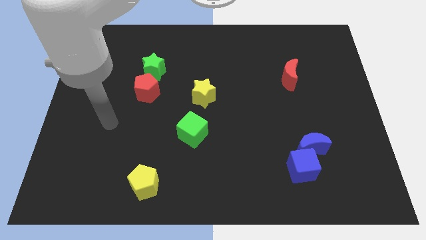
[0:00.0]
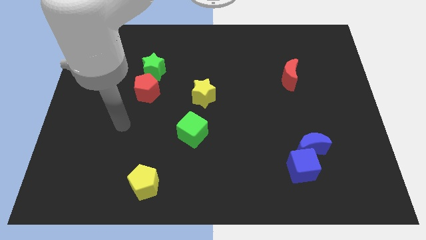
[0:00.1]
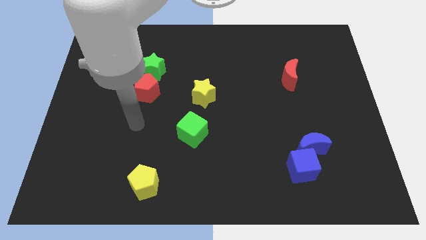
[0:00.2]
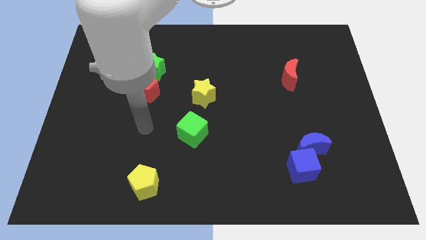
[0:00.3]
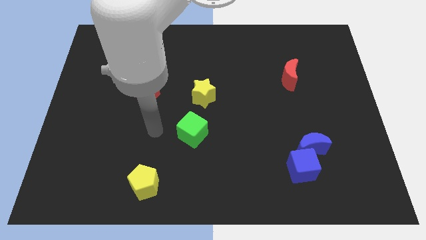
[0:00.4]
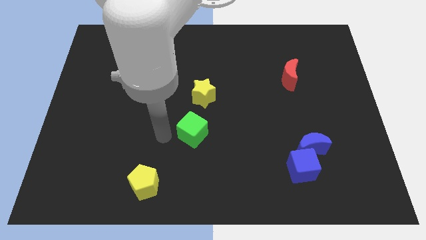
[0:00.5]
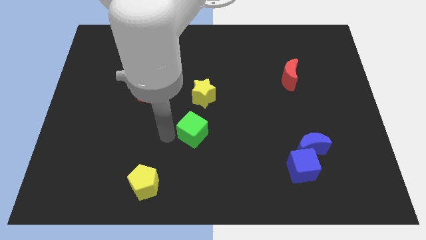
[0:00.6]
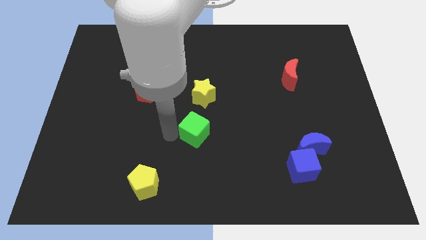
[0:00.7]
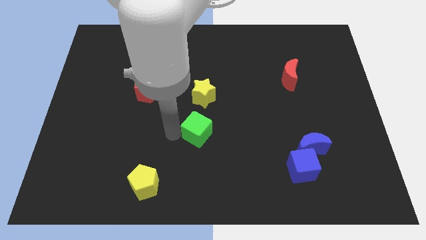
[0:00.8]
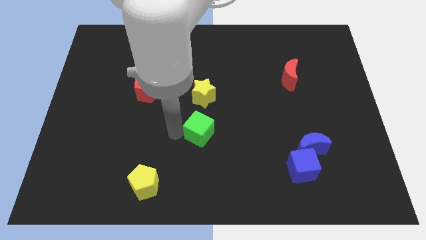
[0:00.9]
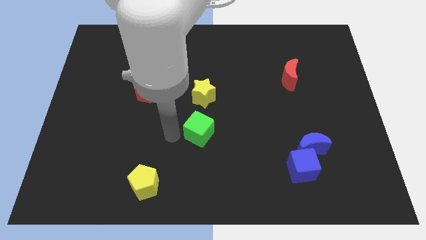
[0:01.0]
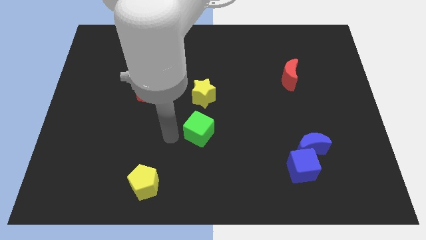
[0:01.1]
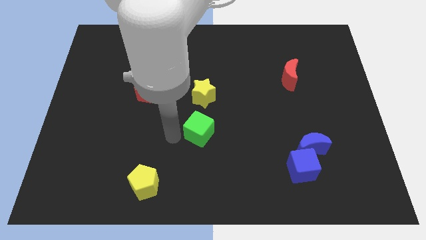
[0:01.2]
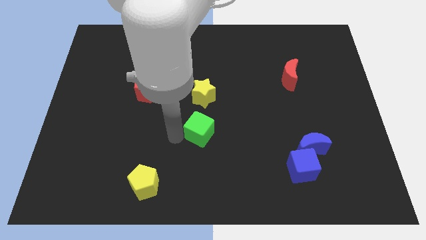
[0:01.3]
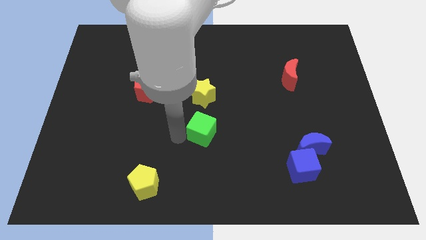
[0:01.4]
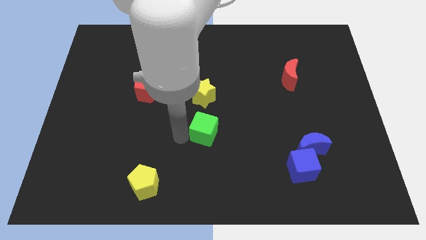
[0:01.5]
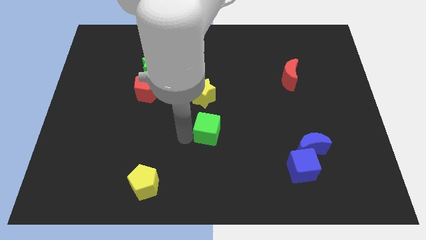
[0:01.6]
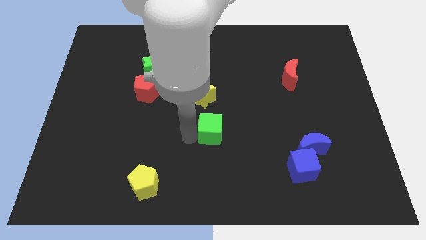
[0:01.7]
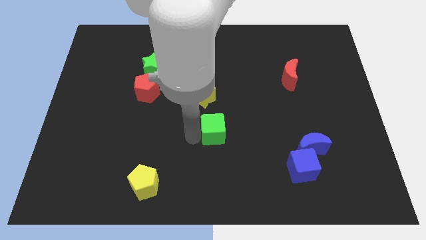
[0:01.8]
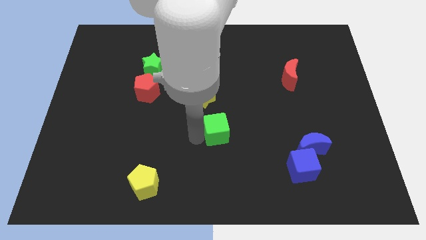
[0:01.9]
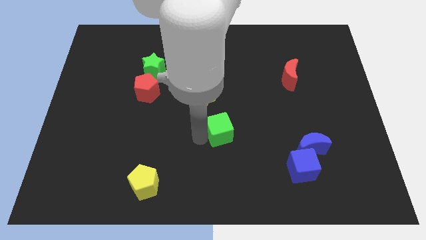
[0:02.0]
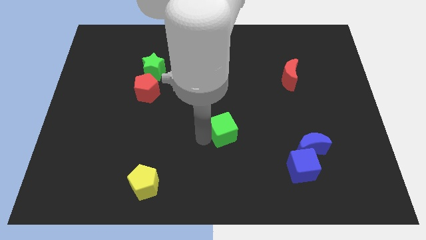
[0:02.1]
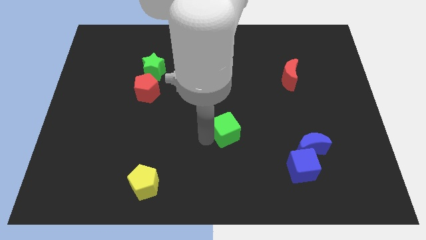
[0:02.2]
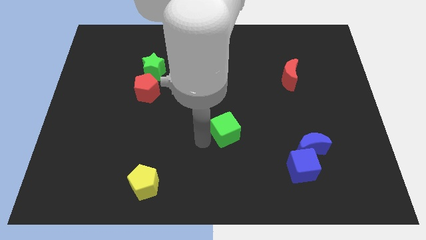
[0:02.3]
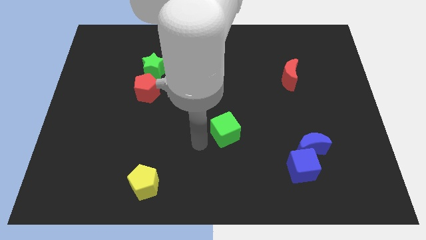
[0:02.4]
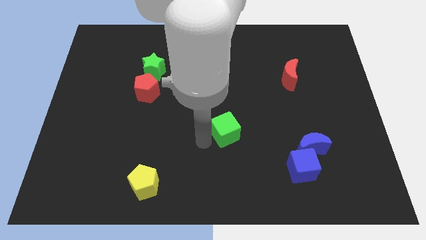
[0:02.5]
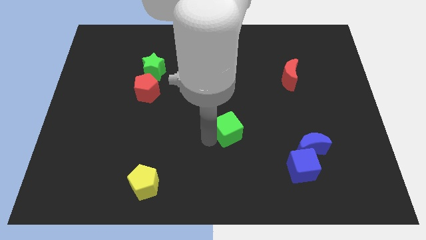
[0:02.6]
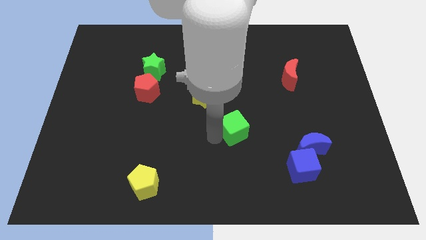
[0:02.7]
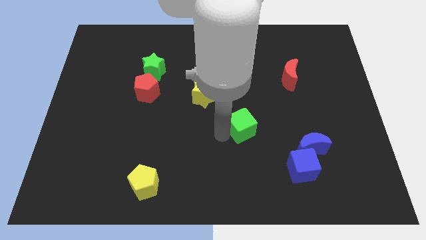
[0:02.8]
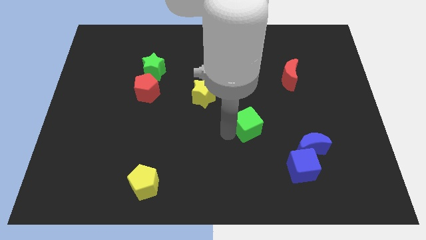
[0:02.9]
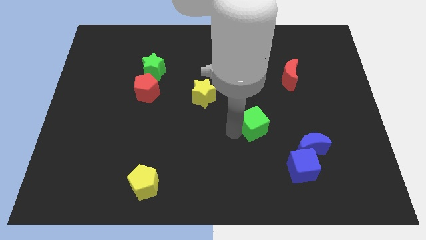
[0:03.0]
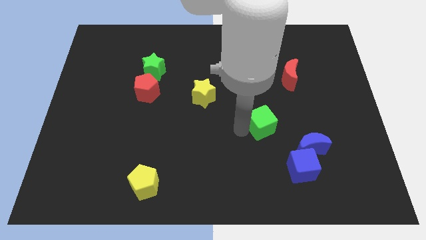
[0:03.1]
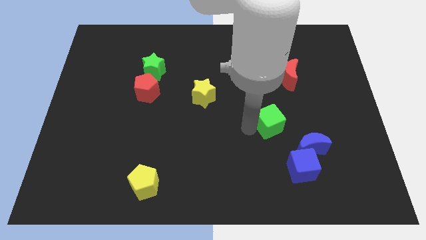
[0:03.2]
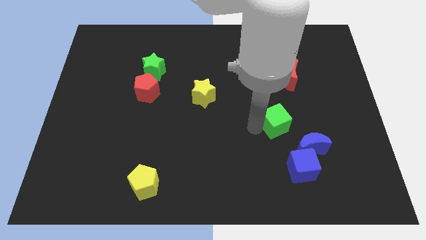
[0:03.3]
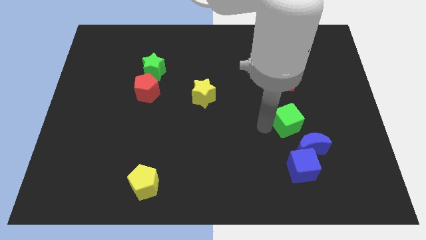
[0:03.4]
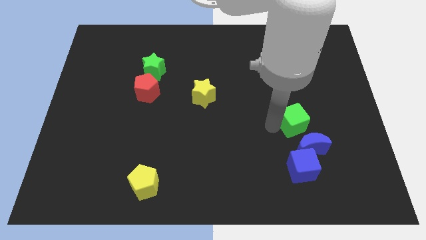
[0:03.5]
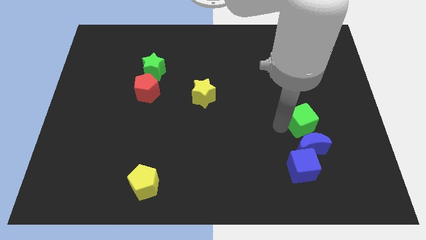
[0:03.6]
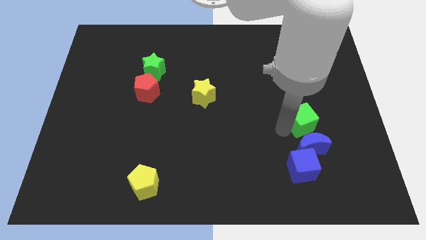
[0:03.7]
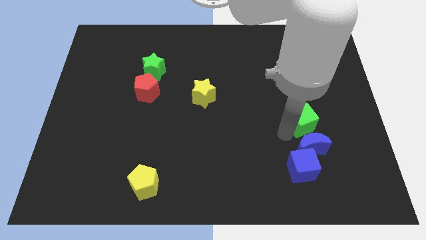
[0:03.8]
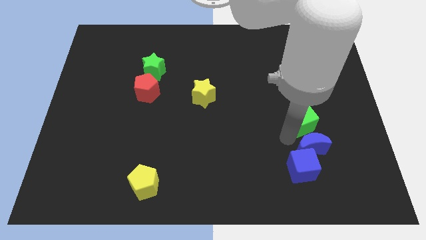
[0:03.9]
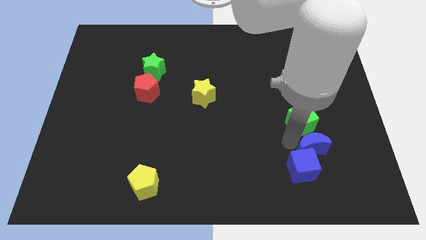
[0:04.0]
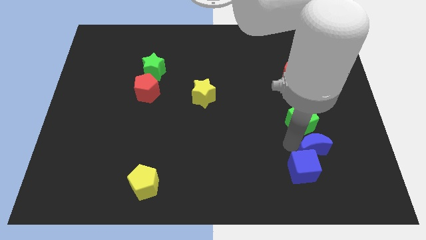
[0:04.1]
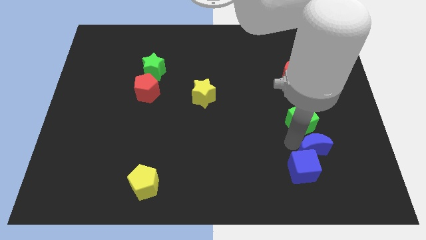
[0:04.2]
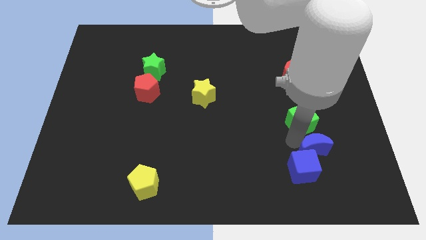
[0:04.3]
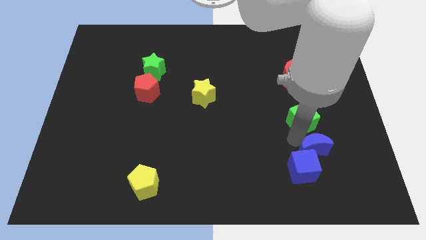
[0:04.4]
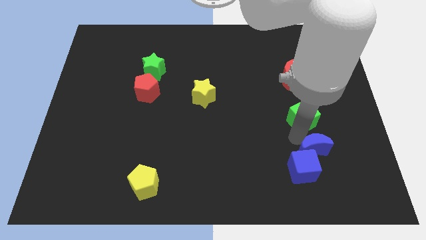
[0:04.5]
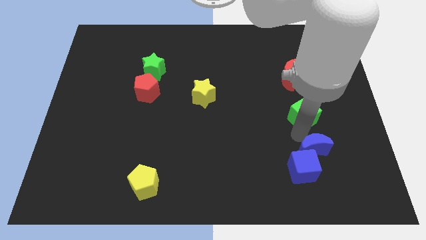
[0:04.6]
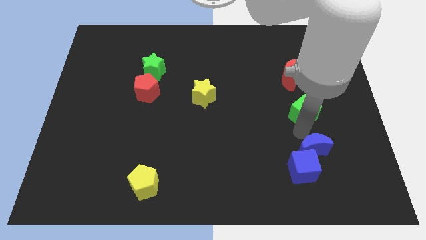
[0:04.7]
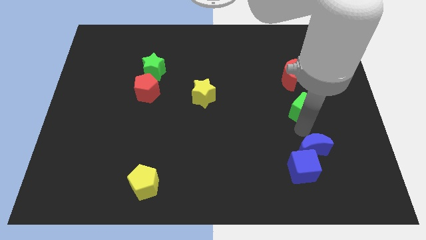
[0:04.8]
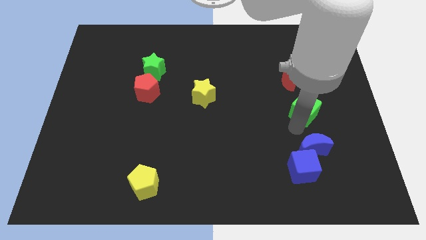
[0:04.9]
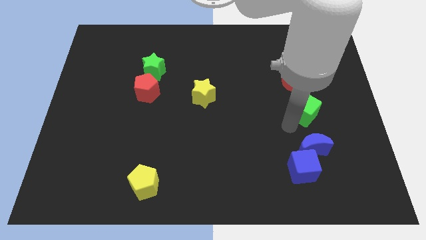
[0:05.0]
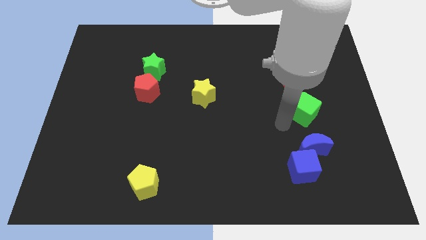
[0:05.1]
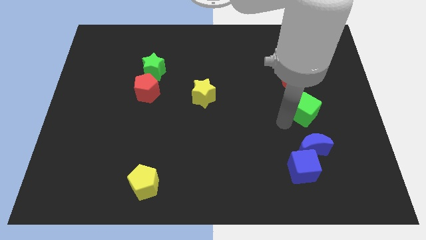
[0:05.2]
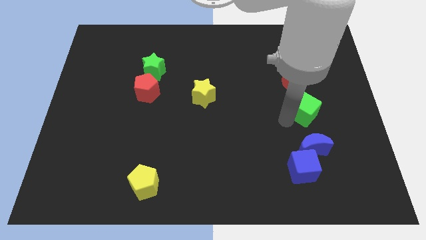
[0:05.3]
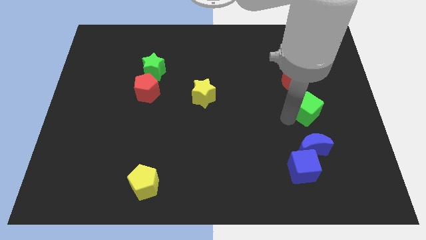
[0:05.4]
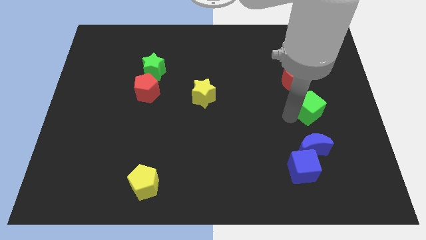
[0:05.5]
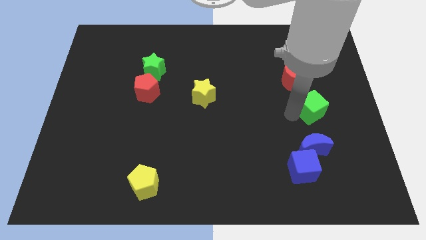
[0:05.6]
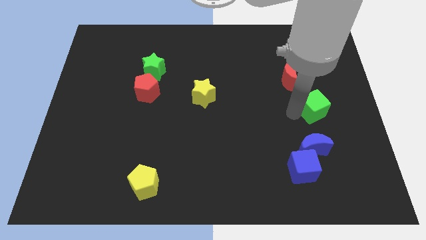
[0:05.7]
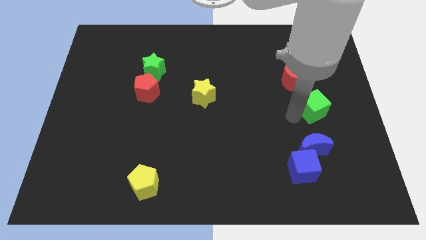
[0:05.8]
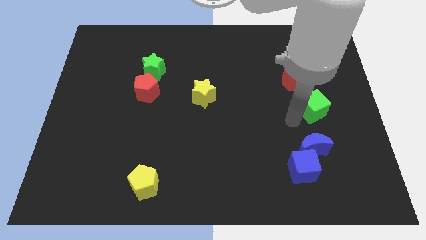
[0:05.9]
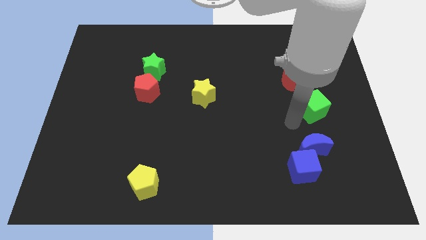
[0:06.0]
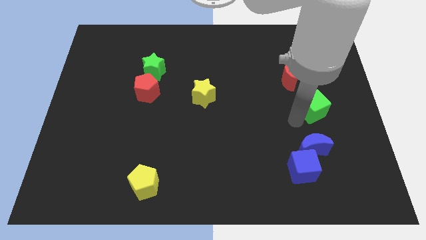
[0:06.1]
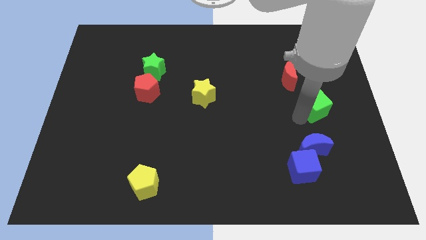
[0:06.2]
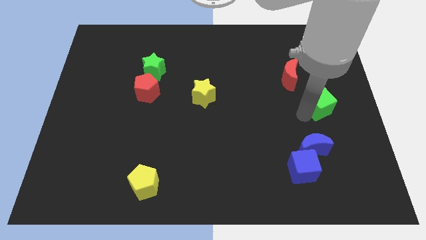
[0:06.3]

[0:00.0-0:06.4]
put the green cube to the right side

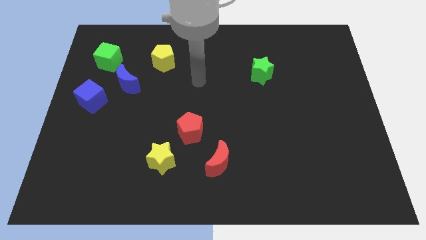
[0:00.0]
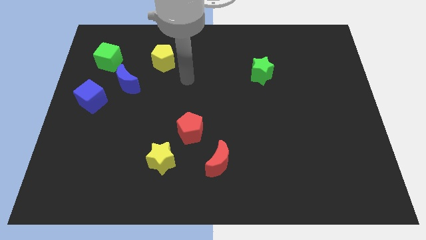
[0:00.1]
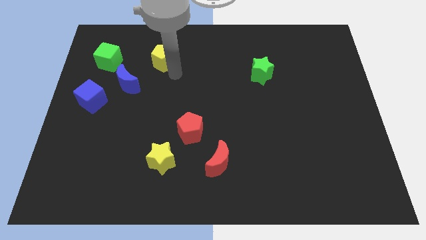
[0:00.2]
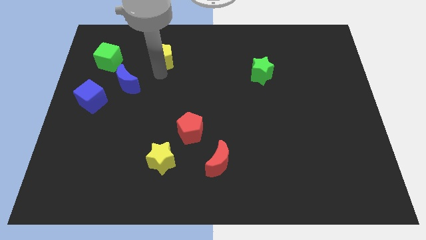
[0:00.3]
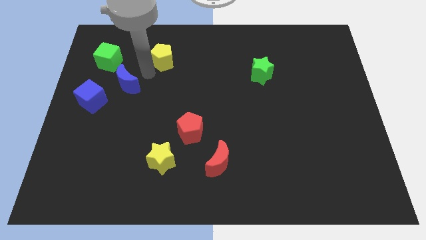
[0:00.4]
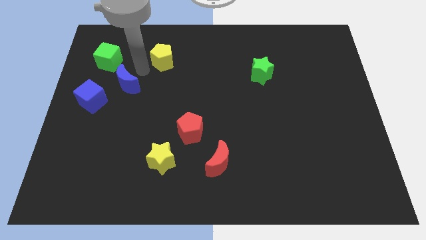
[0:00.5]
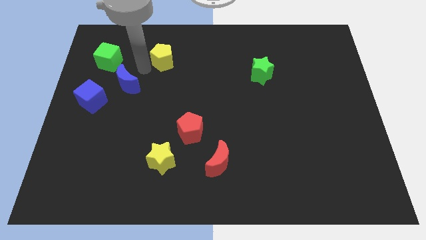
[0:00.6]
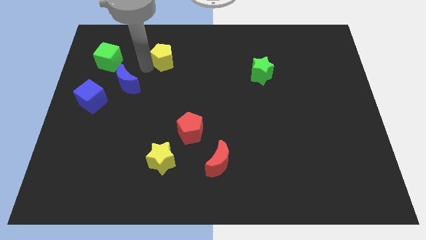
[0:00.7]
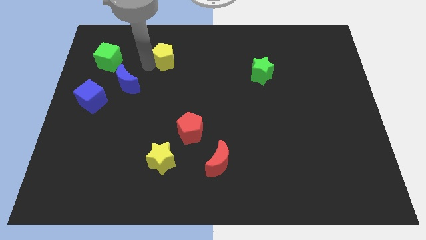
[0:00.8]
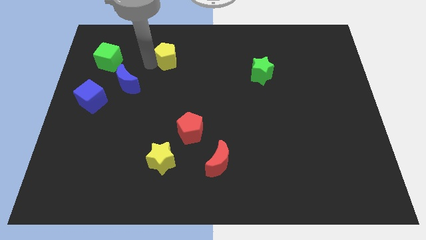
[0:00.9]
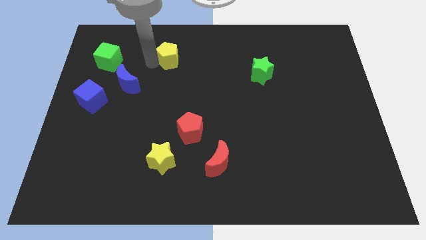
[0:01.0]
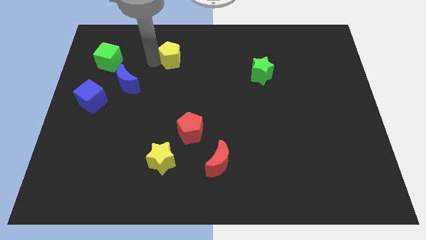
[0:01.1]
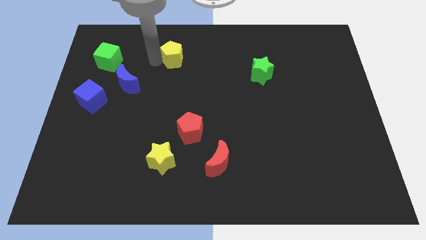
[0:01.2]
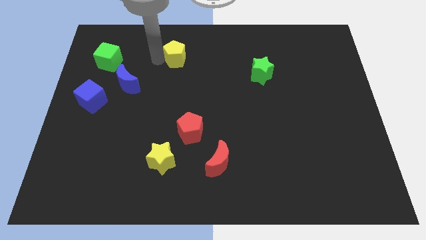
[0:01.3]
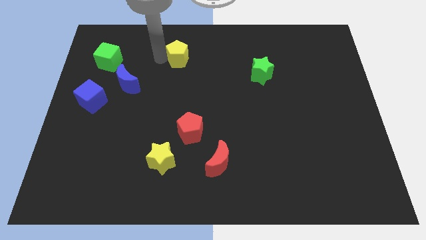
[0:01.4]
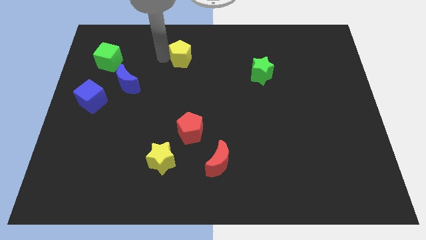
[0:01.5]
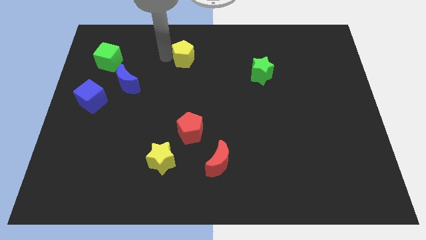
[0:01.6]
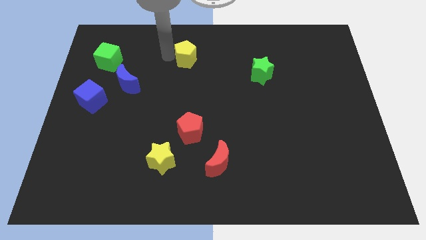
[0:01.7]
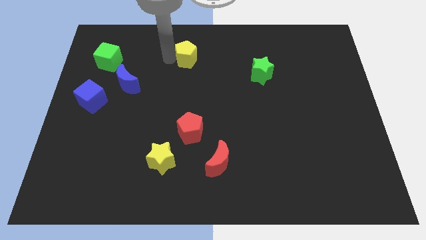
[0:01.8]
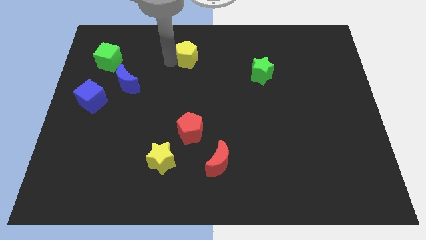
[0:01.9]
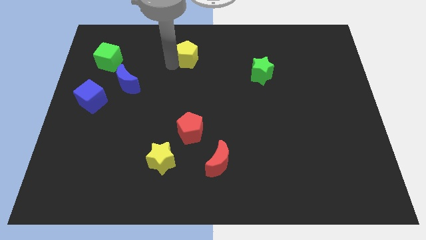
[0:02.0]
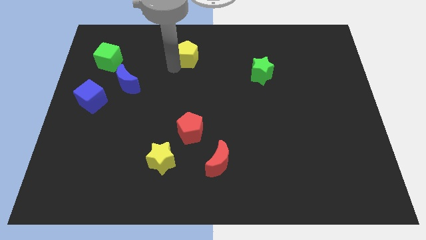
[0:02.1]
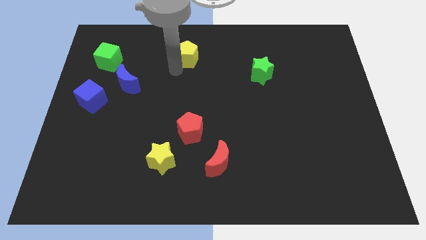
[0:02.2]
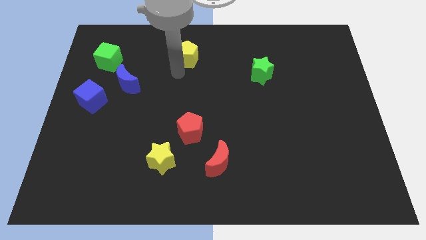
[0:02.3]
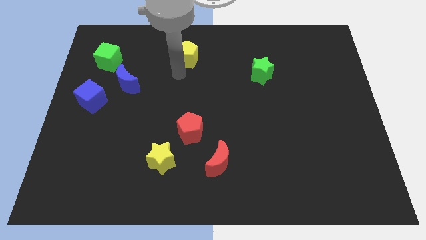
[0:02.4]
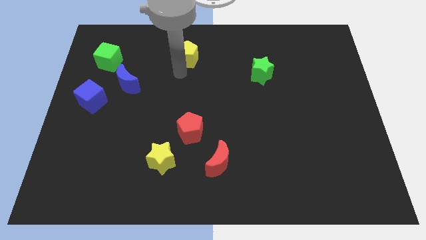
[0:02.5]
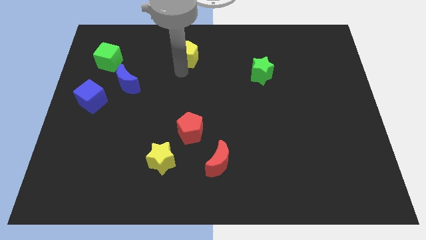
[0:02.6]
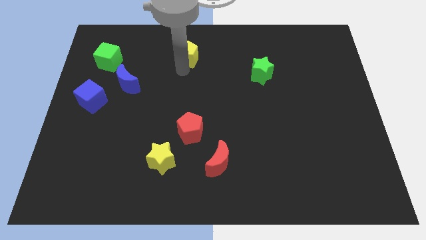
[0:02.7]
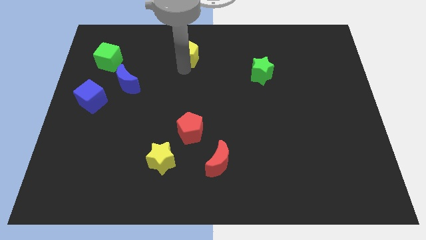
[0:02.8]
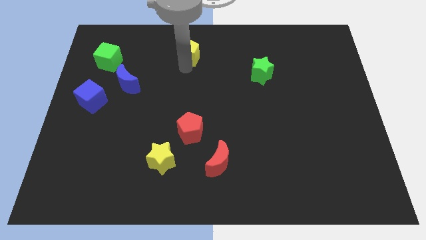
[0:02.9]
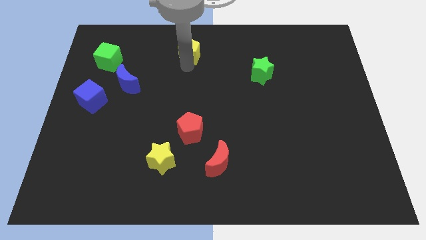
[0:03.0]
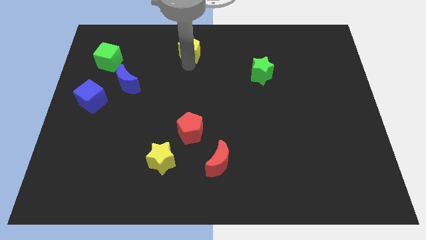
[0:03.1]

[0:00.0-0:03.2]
put the yellow pentagon to the top
